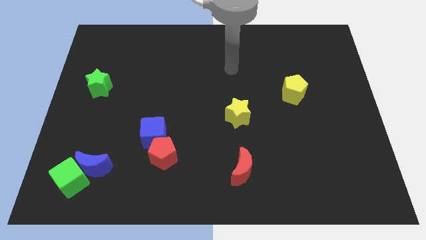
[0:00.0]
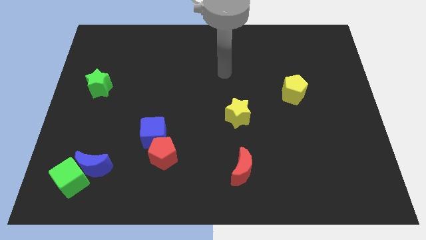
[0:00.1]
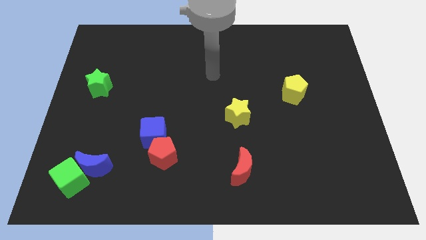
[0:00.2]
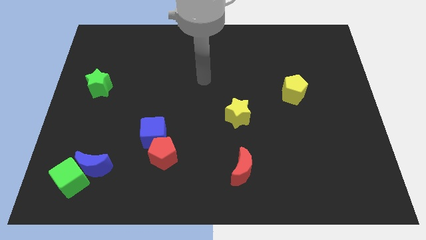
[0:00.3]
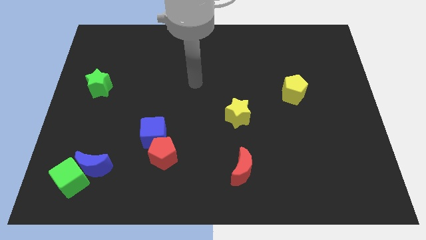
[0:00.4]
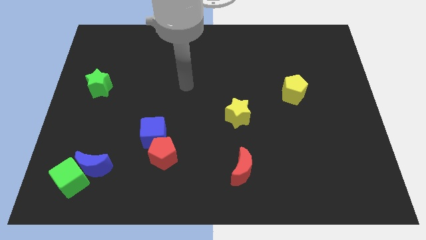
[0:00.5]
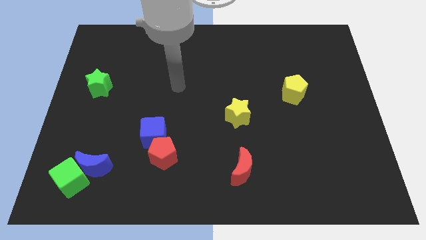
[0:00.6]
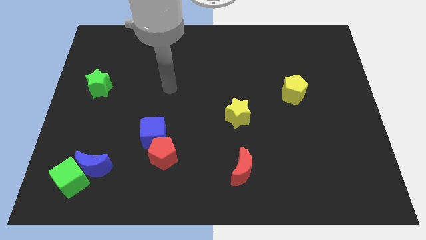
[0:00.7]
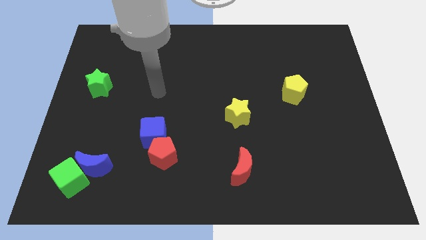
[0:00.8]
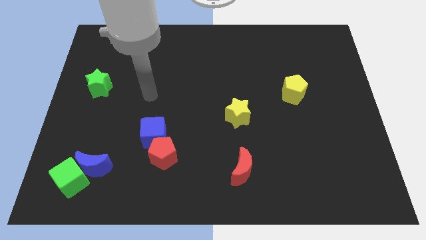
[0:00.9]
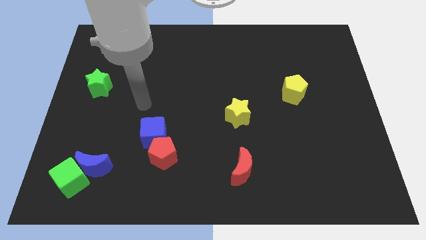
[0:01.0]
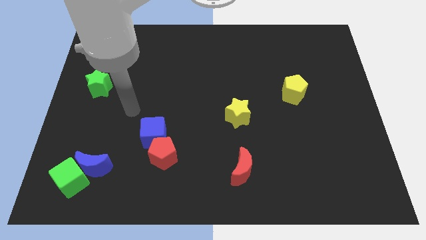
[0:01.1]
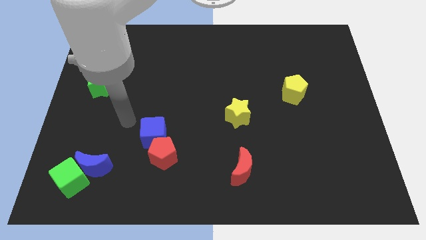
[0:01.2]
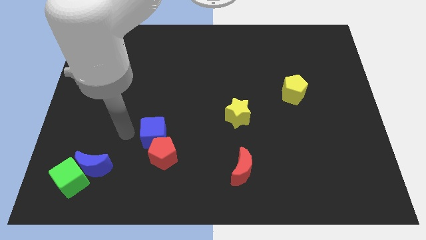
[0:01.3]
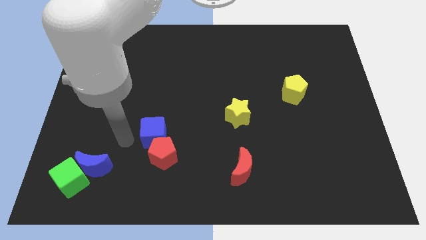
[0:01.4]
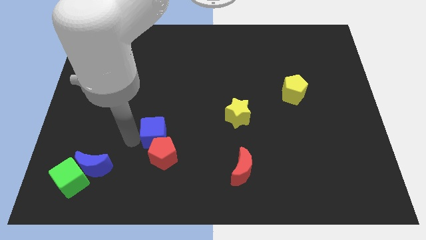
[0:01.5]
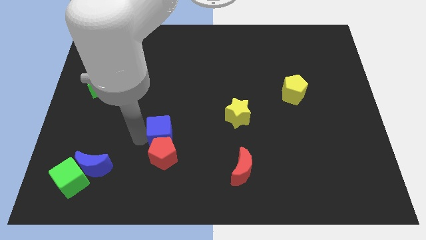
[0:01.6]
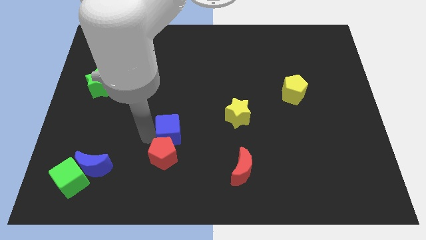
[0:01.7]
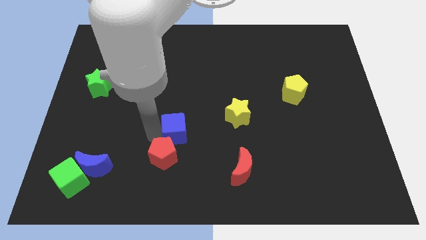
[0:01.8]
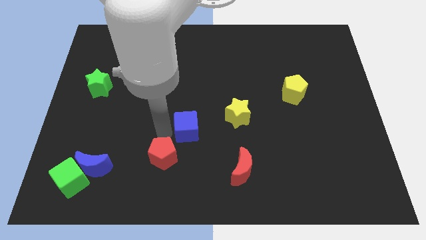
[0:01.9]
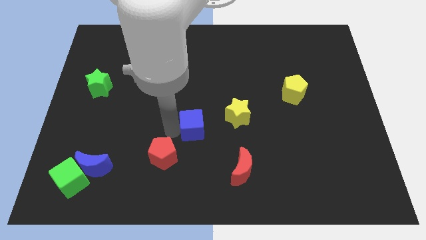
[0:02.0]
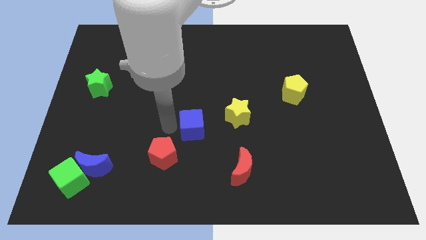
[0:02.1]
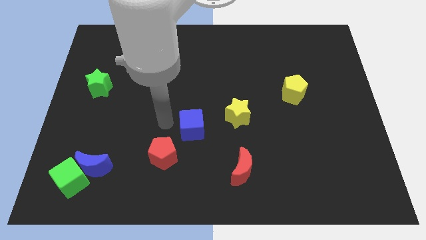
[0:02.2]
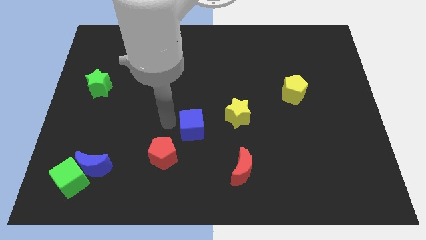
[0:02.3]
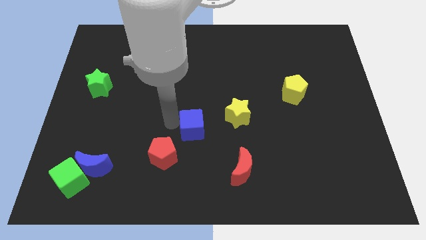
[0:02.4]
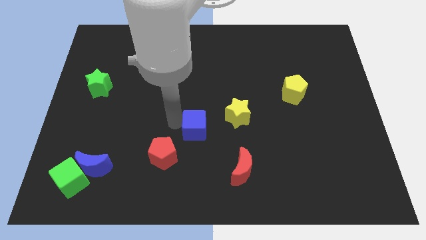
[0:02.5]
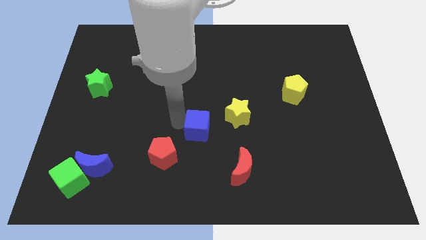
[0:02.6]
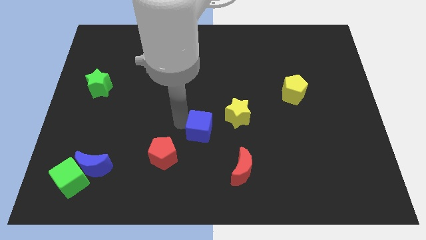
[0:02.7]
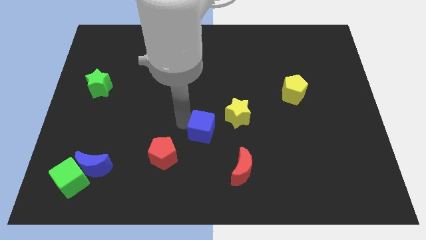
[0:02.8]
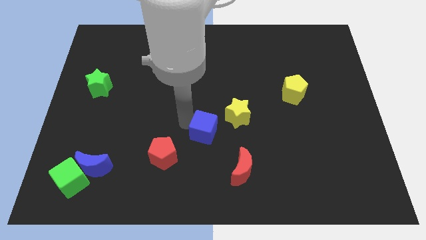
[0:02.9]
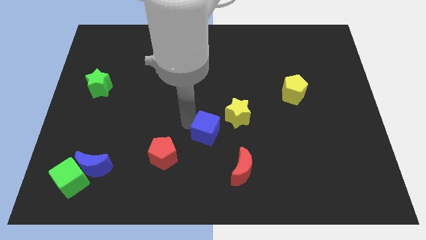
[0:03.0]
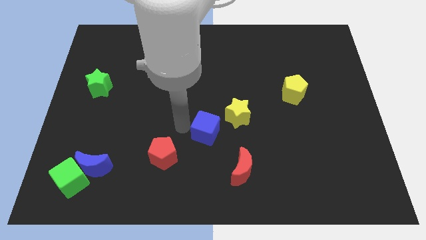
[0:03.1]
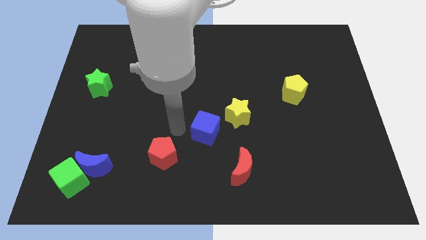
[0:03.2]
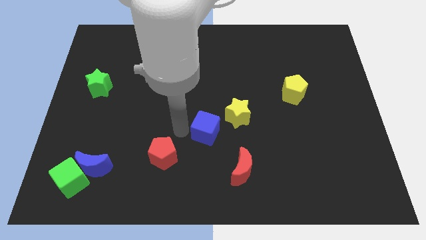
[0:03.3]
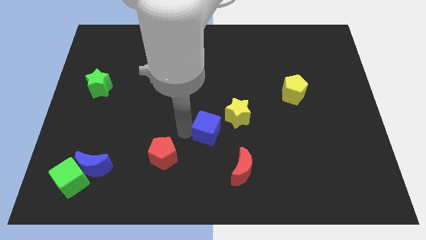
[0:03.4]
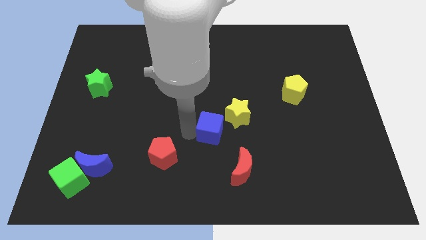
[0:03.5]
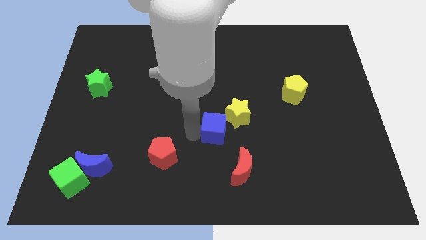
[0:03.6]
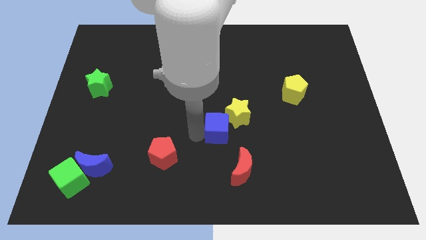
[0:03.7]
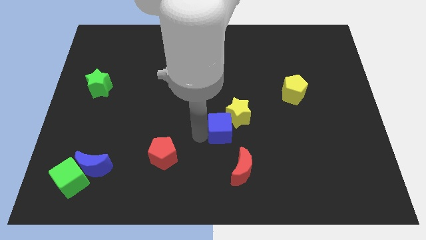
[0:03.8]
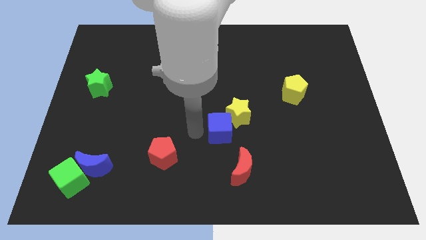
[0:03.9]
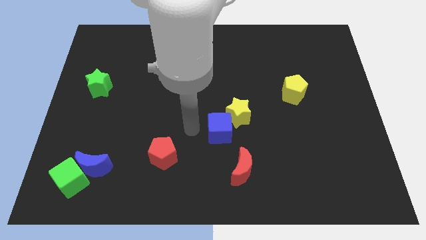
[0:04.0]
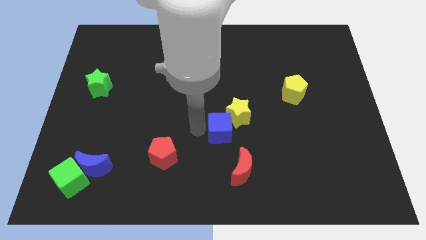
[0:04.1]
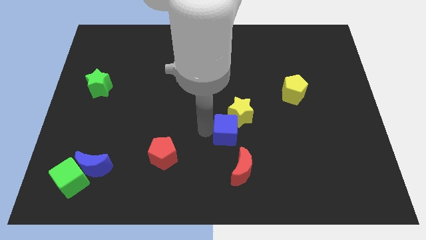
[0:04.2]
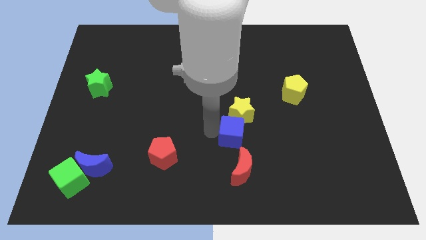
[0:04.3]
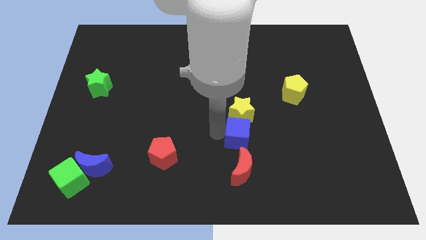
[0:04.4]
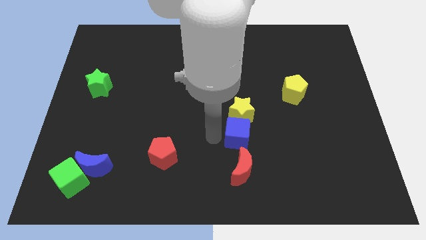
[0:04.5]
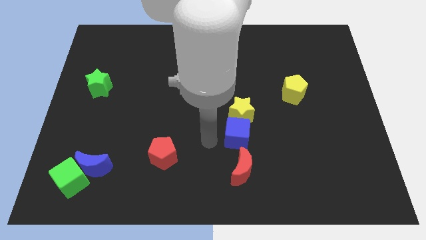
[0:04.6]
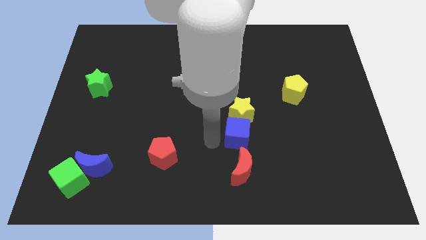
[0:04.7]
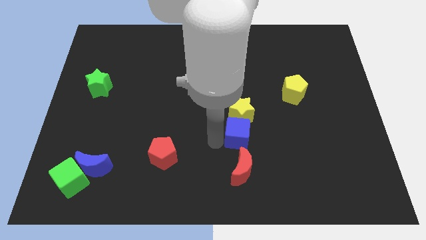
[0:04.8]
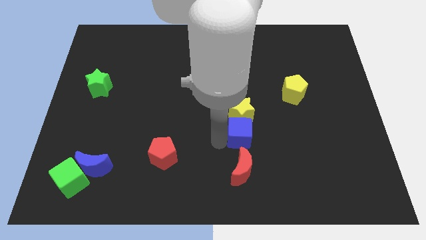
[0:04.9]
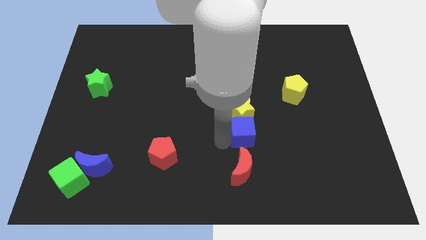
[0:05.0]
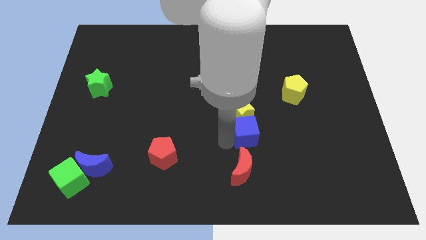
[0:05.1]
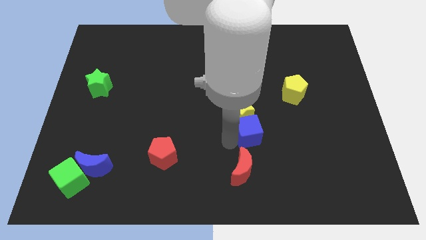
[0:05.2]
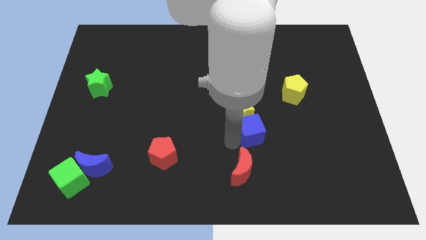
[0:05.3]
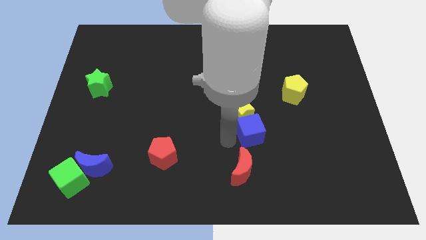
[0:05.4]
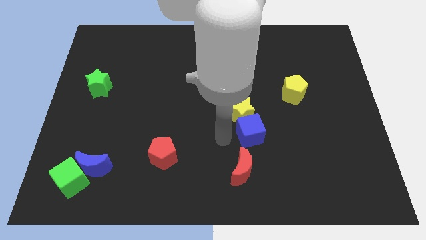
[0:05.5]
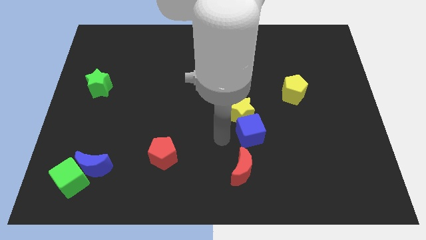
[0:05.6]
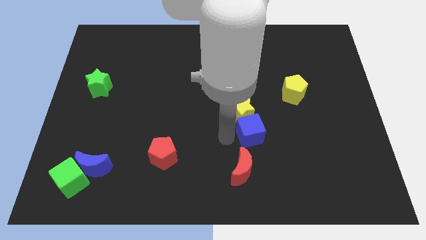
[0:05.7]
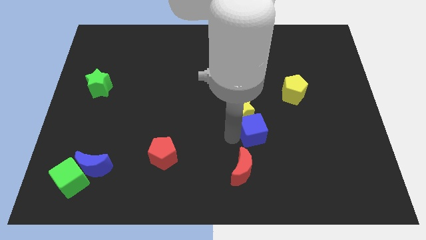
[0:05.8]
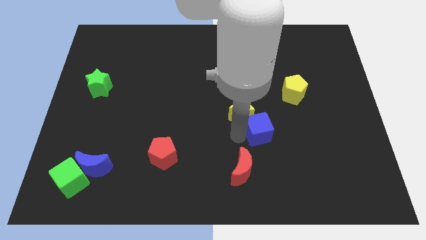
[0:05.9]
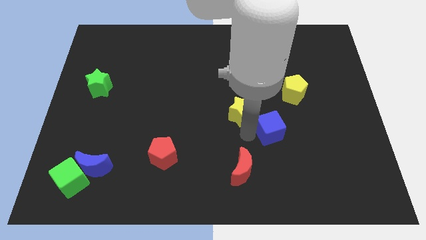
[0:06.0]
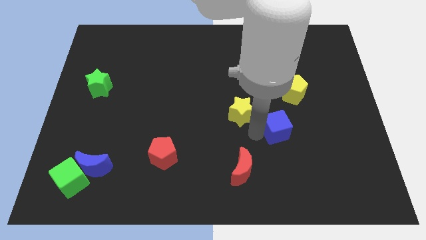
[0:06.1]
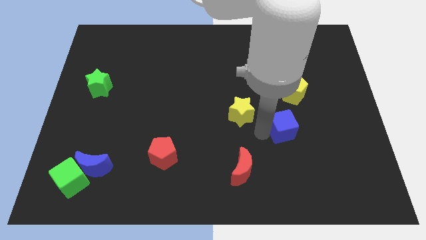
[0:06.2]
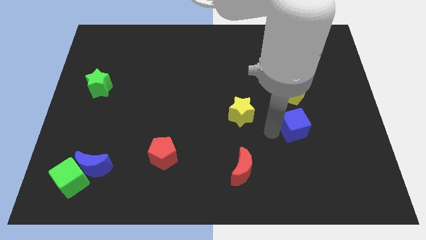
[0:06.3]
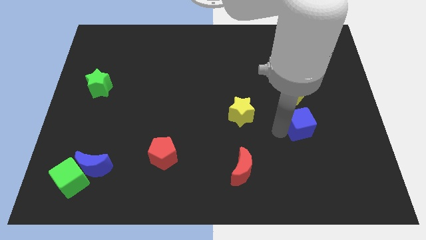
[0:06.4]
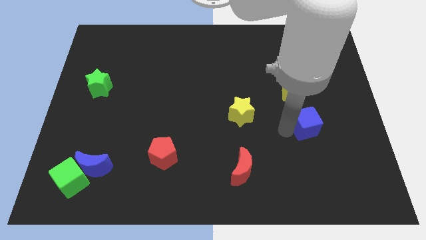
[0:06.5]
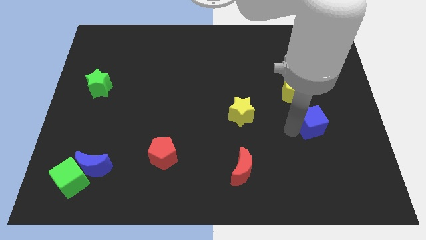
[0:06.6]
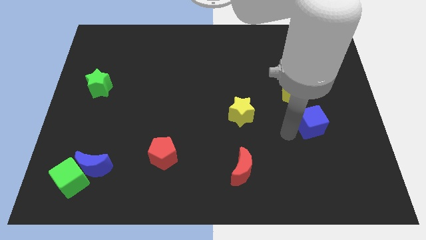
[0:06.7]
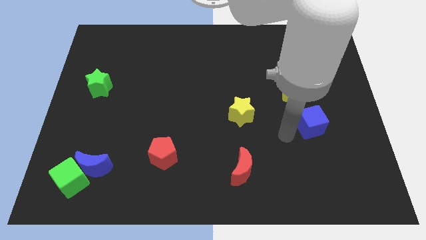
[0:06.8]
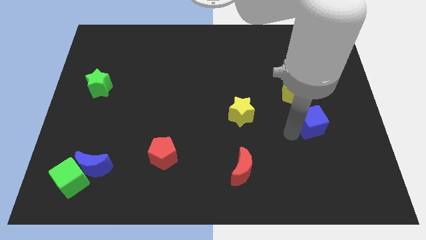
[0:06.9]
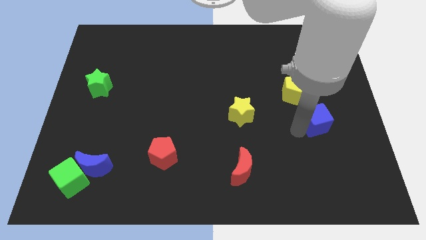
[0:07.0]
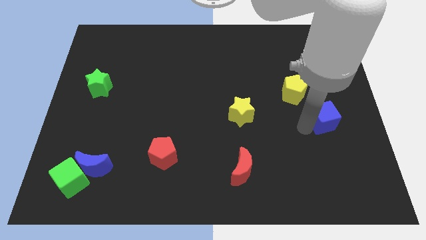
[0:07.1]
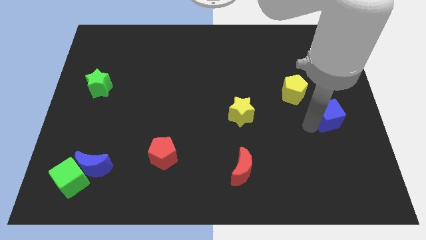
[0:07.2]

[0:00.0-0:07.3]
move the blue cube to the center right
